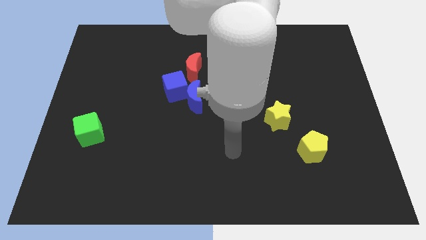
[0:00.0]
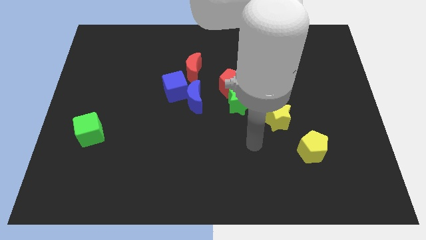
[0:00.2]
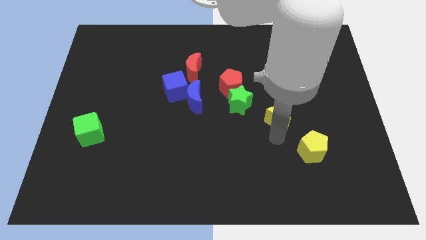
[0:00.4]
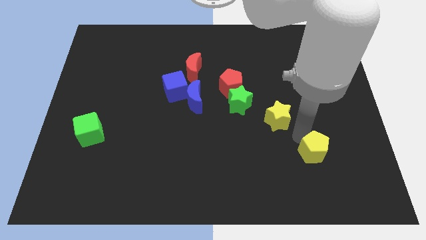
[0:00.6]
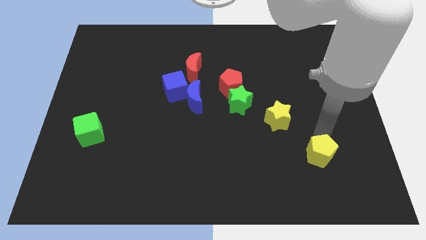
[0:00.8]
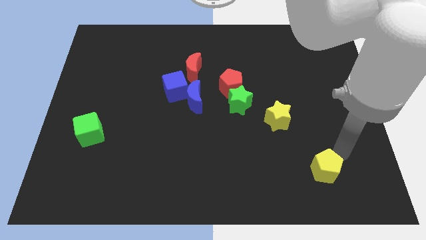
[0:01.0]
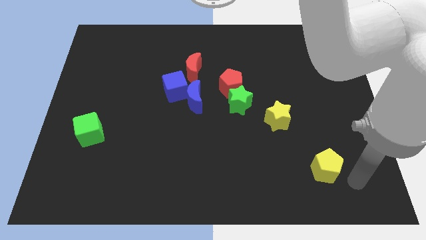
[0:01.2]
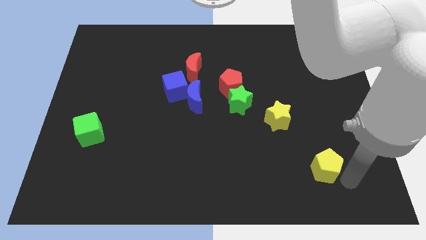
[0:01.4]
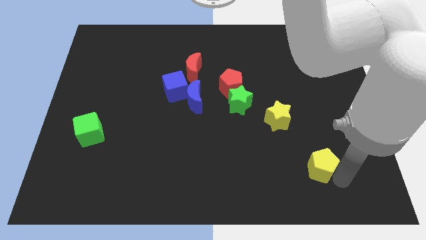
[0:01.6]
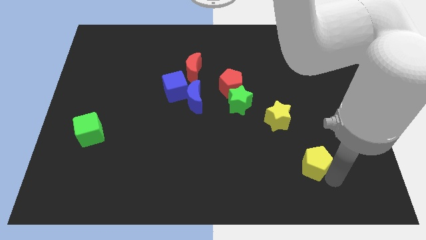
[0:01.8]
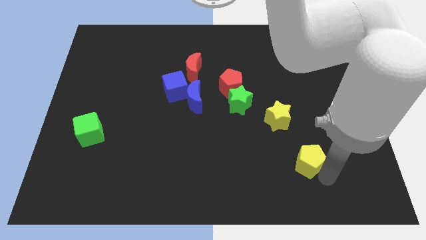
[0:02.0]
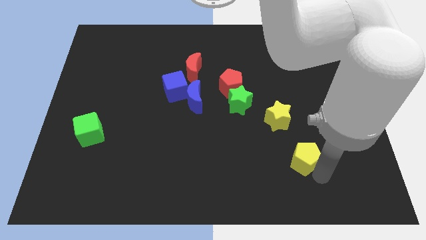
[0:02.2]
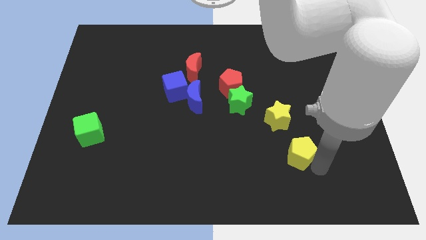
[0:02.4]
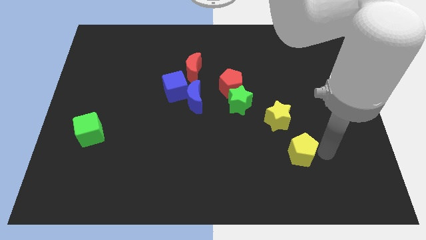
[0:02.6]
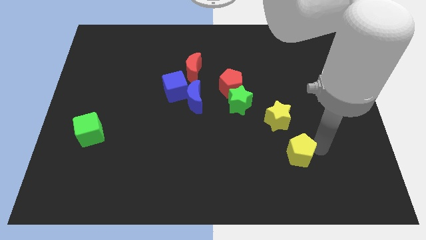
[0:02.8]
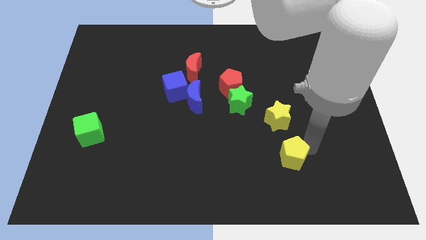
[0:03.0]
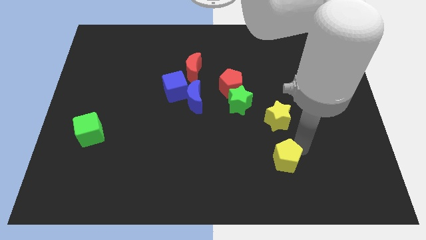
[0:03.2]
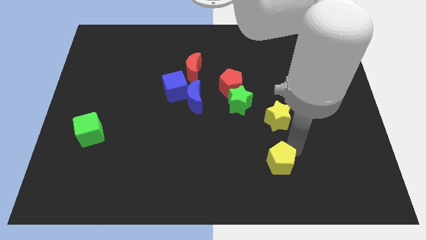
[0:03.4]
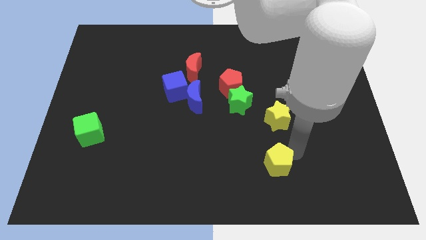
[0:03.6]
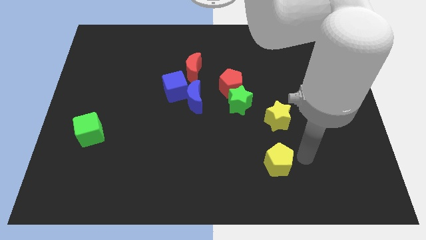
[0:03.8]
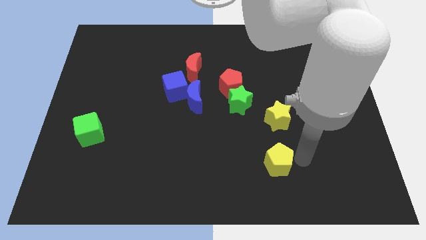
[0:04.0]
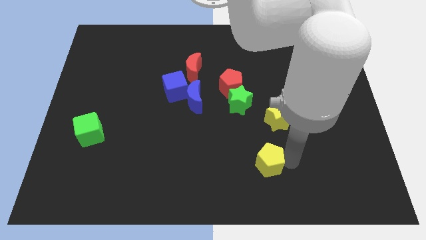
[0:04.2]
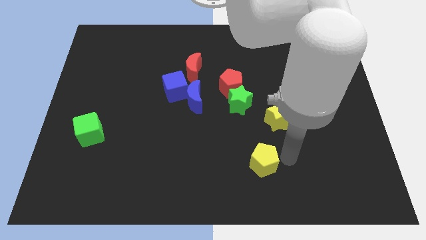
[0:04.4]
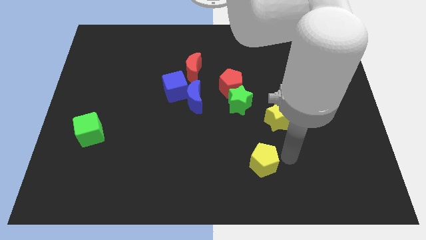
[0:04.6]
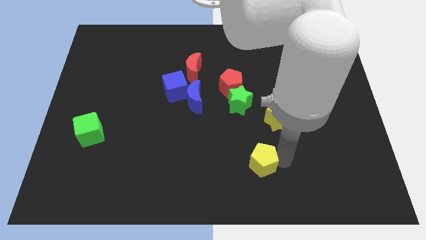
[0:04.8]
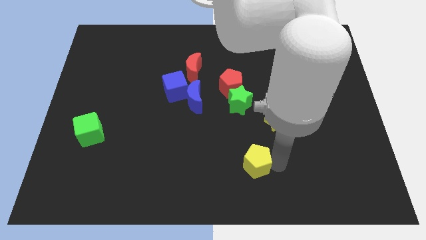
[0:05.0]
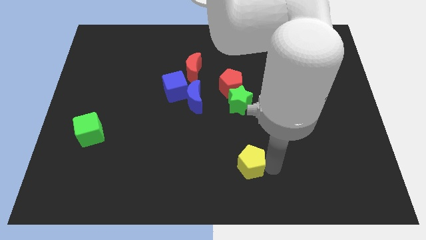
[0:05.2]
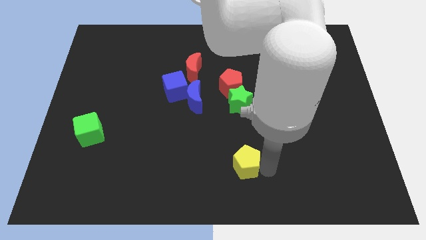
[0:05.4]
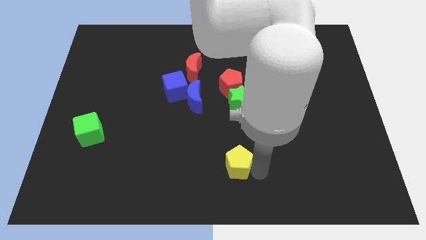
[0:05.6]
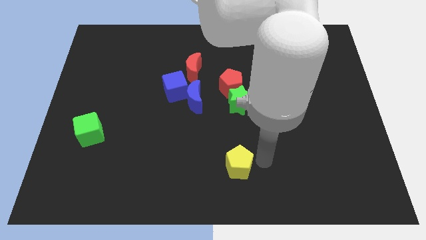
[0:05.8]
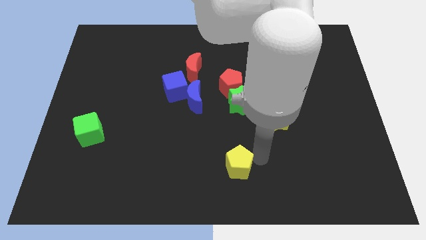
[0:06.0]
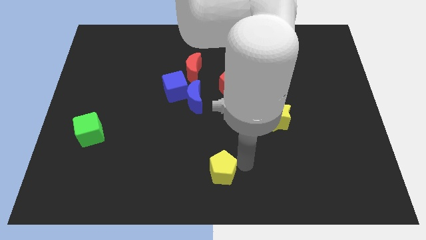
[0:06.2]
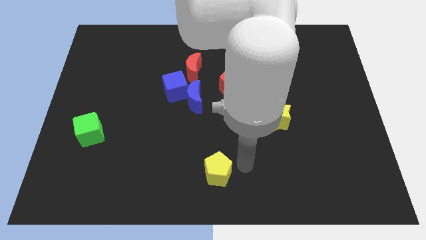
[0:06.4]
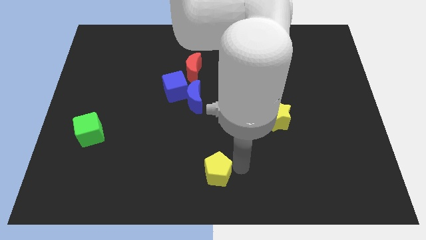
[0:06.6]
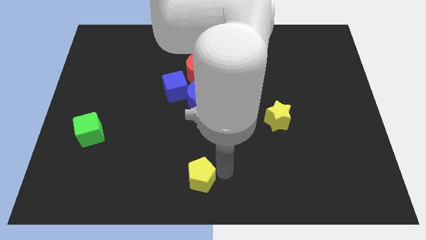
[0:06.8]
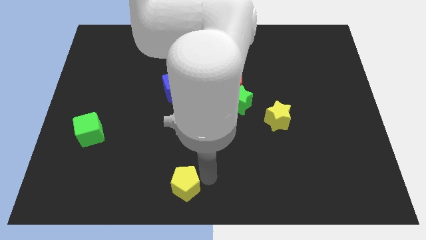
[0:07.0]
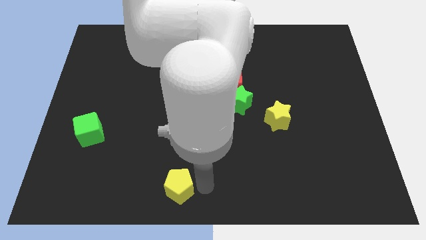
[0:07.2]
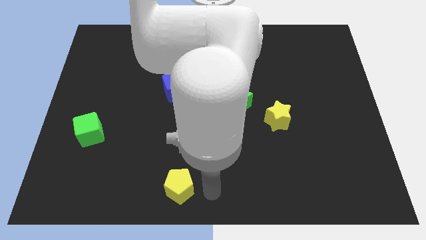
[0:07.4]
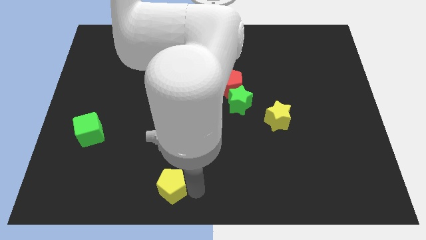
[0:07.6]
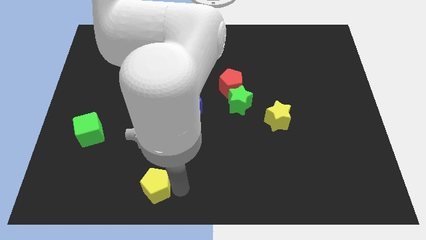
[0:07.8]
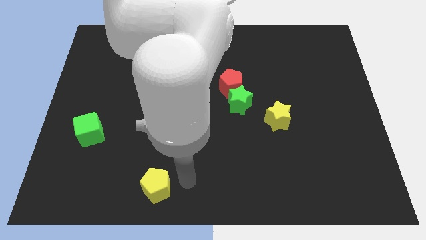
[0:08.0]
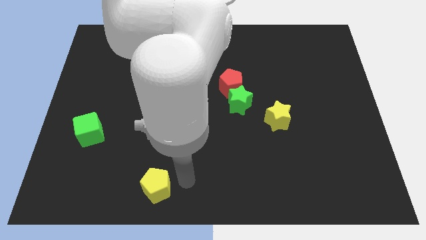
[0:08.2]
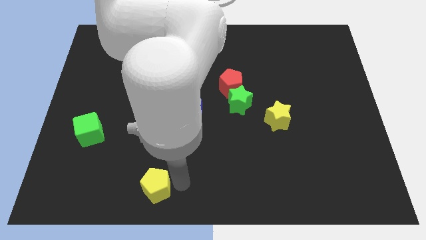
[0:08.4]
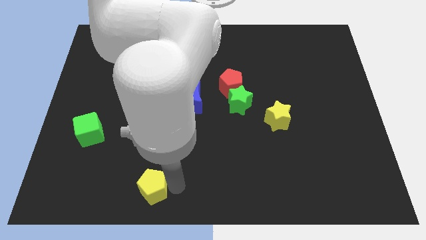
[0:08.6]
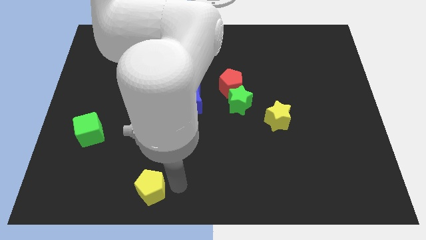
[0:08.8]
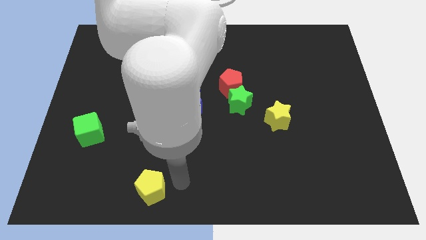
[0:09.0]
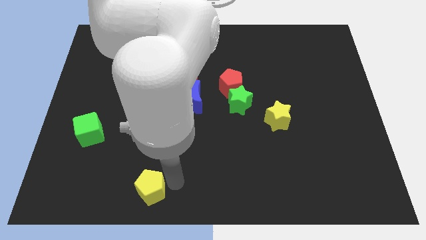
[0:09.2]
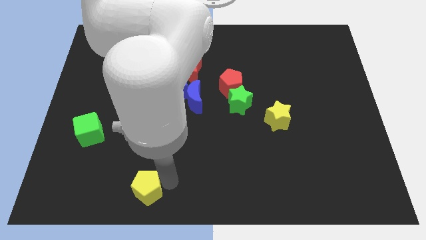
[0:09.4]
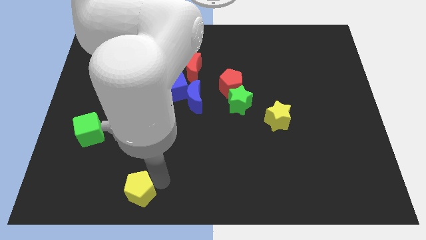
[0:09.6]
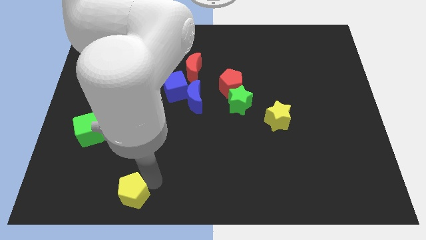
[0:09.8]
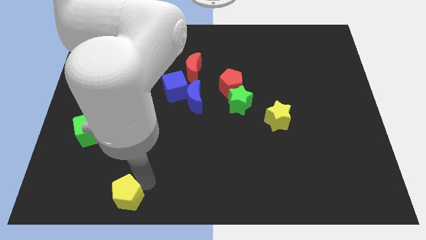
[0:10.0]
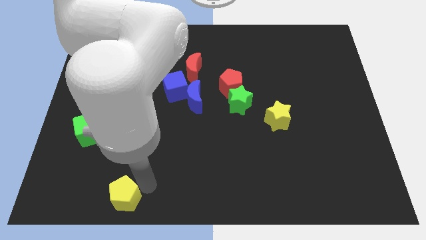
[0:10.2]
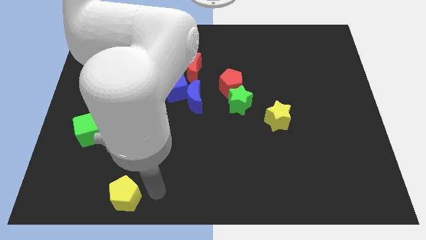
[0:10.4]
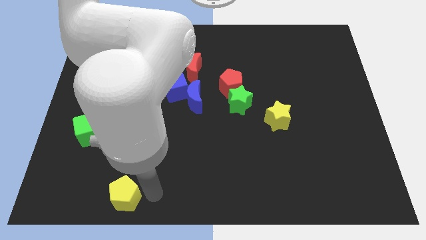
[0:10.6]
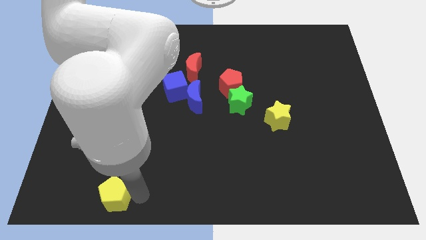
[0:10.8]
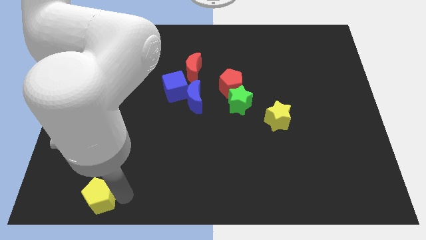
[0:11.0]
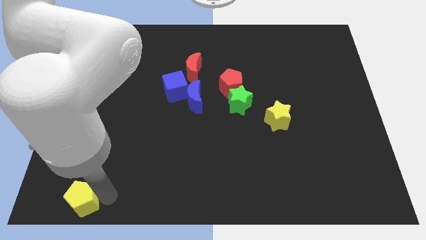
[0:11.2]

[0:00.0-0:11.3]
put the yellow pentagon to the lower left corner

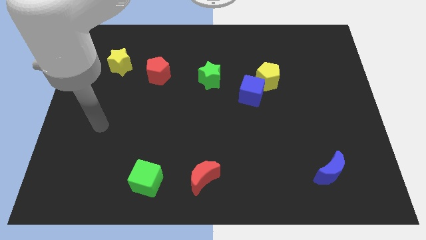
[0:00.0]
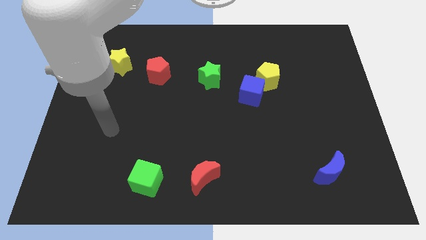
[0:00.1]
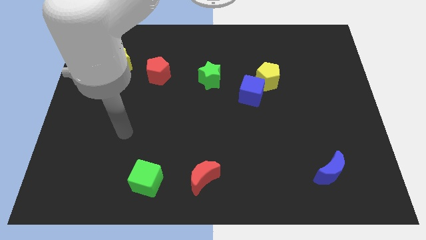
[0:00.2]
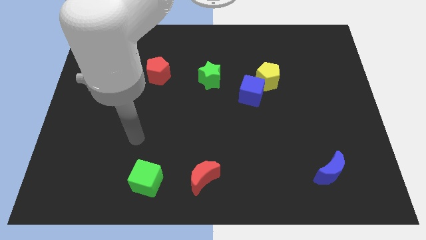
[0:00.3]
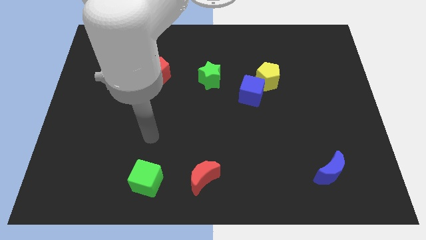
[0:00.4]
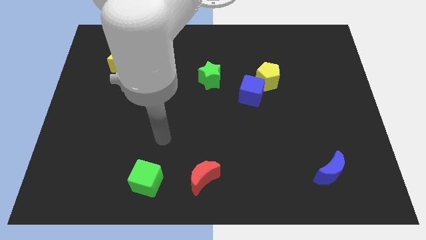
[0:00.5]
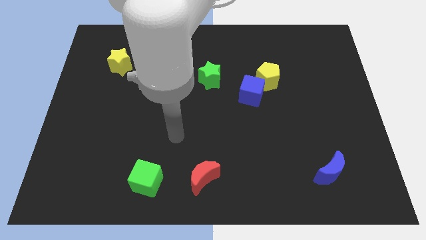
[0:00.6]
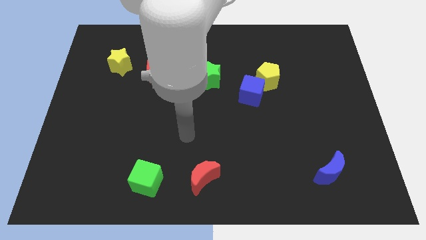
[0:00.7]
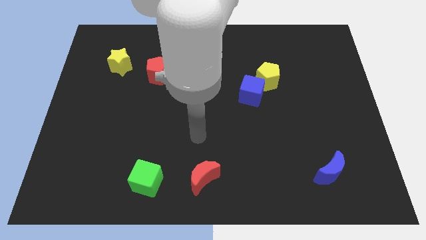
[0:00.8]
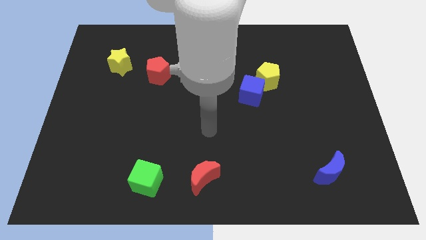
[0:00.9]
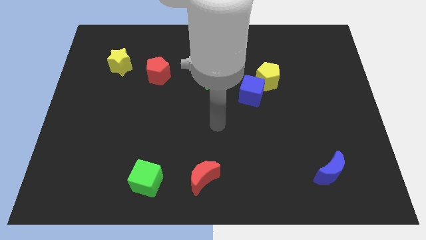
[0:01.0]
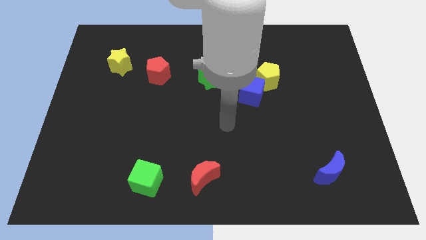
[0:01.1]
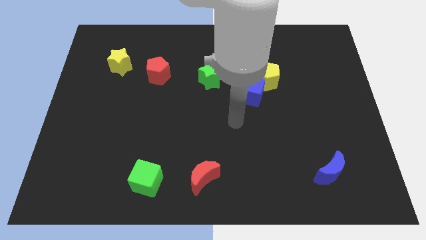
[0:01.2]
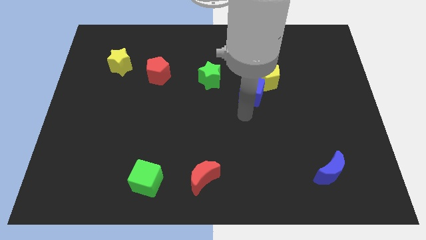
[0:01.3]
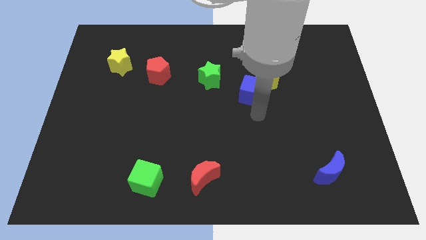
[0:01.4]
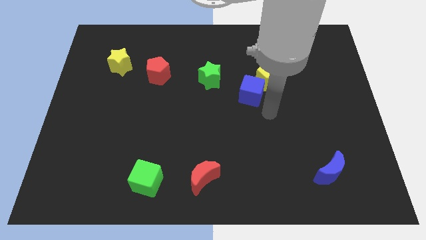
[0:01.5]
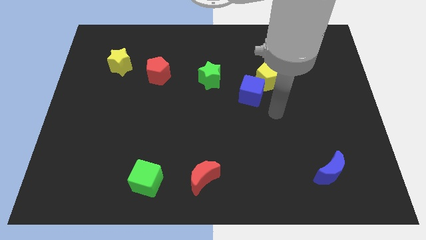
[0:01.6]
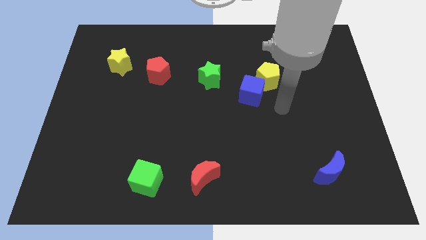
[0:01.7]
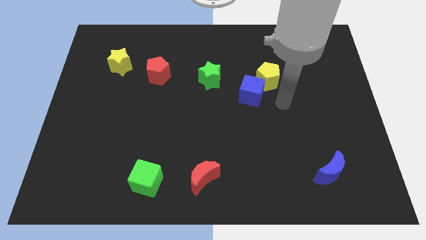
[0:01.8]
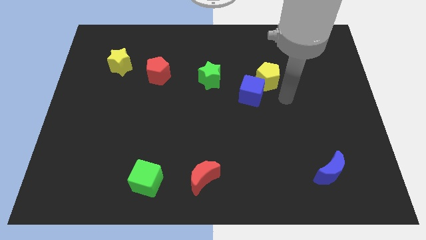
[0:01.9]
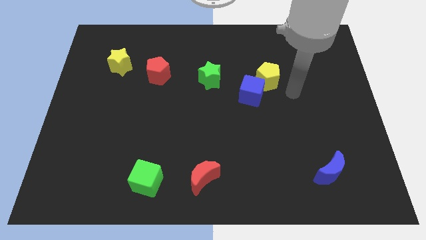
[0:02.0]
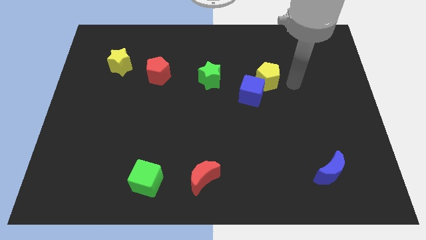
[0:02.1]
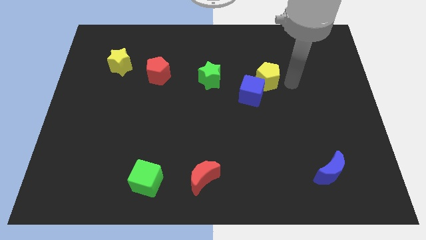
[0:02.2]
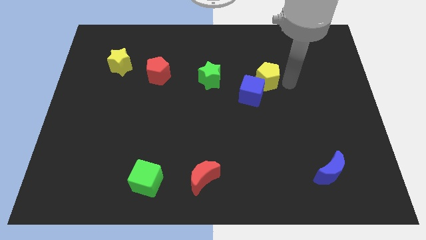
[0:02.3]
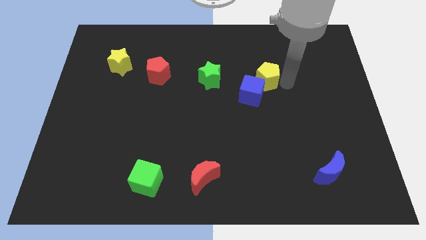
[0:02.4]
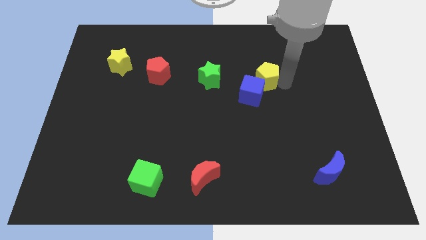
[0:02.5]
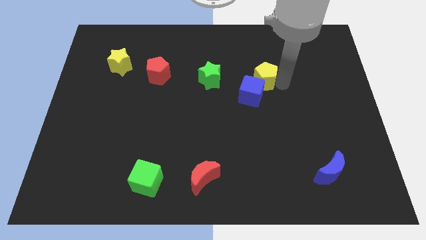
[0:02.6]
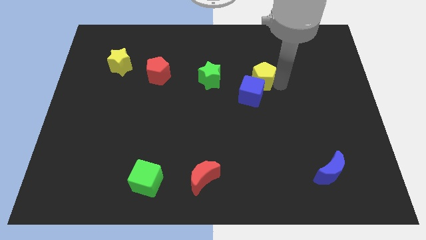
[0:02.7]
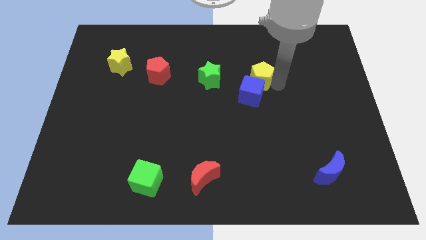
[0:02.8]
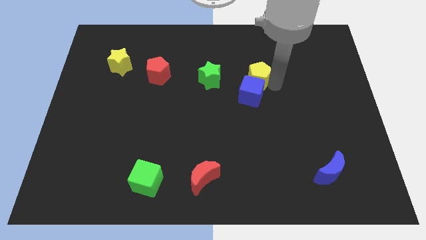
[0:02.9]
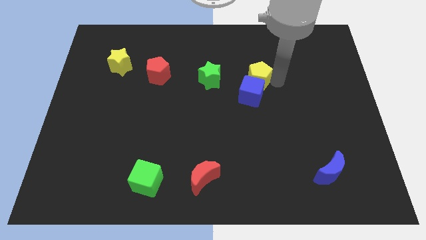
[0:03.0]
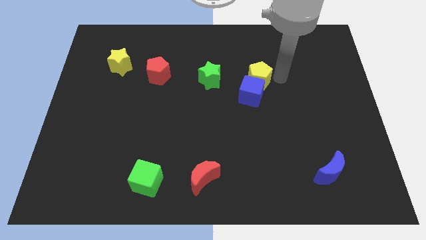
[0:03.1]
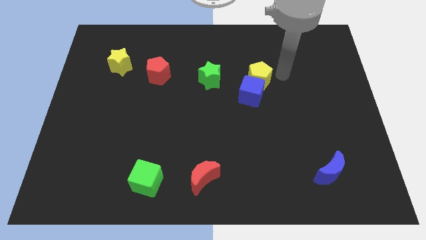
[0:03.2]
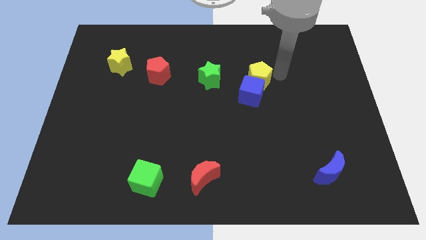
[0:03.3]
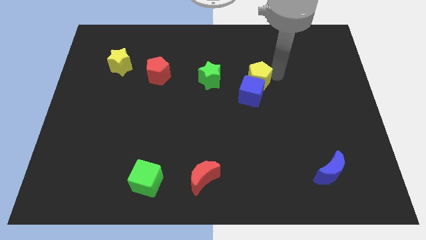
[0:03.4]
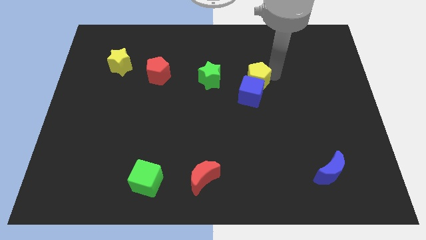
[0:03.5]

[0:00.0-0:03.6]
move the yellow pentagon to the center
